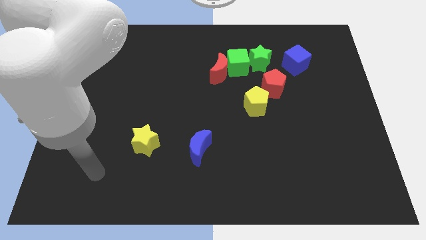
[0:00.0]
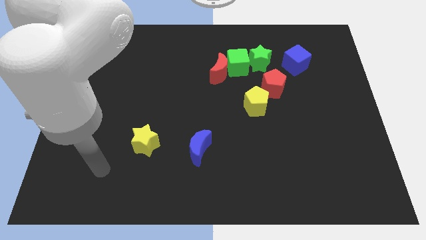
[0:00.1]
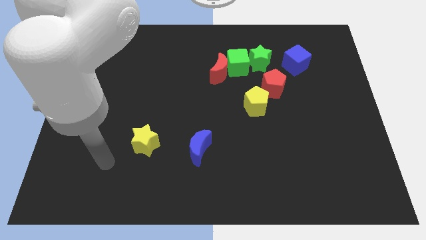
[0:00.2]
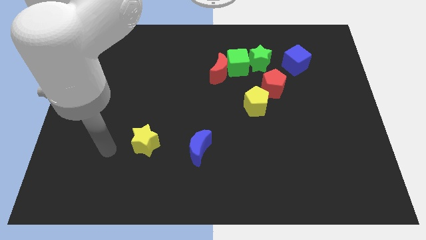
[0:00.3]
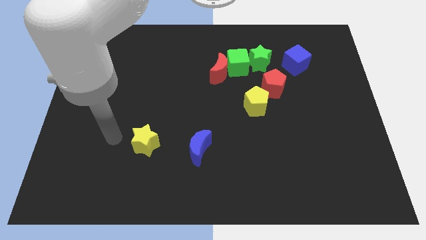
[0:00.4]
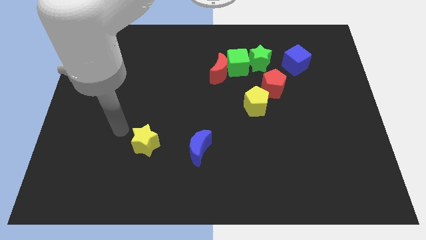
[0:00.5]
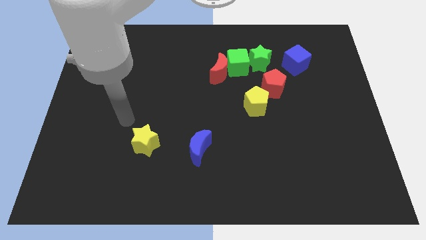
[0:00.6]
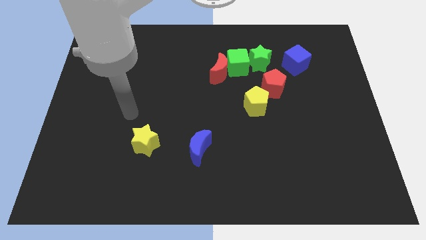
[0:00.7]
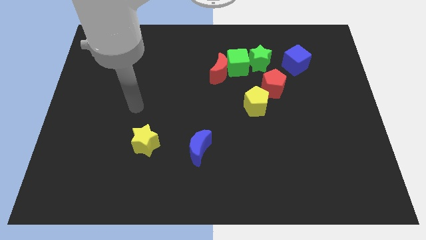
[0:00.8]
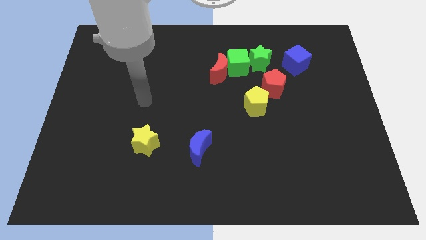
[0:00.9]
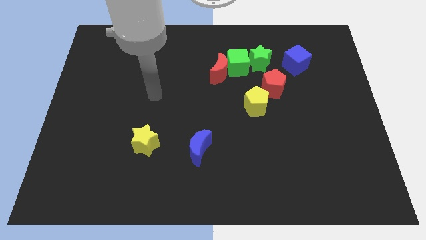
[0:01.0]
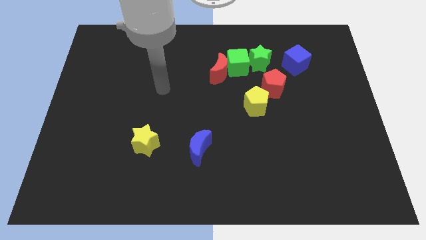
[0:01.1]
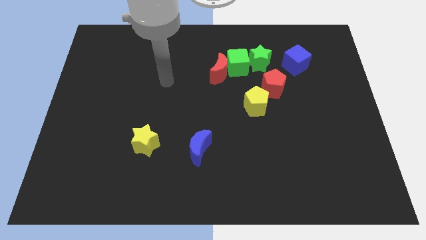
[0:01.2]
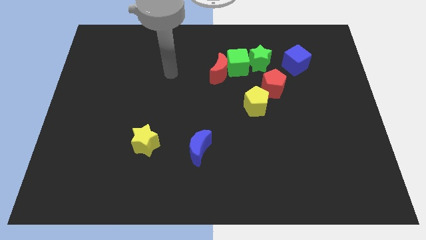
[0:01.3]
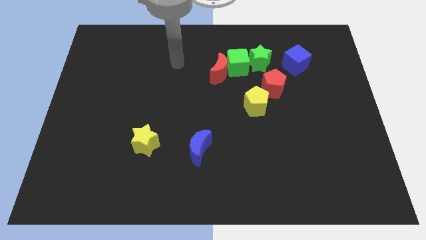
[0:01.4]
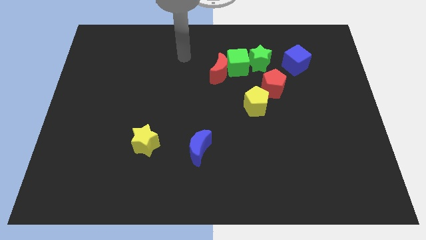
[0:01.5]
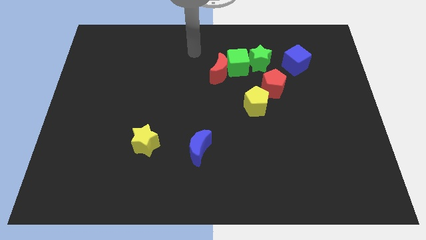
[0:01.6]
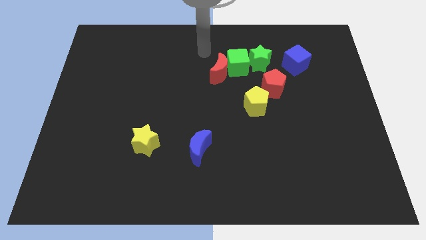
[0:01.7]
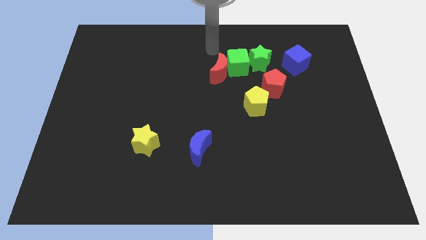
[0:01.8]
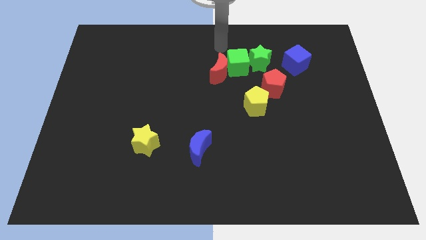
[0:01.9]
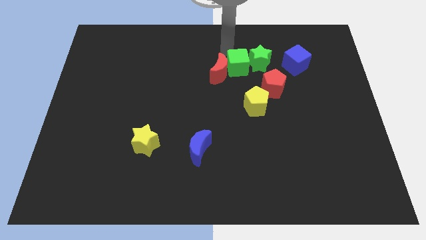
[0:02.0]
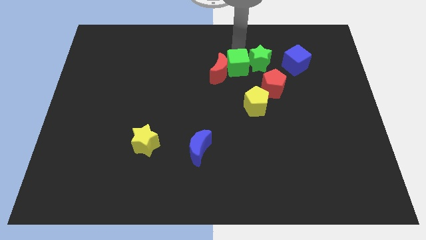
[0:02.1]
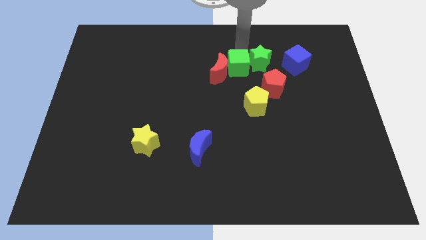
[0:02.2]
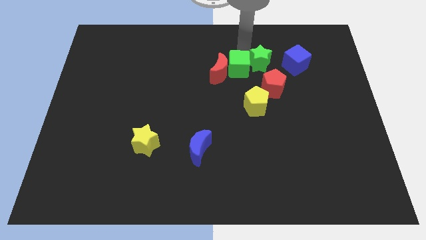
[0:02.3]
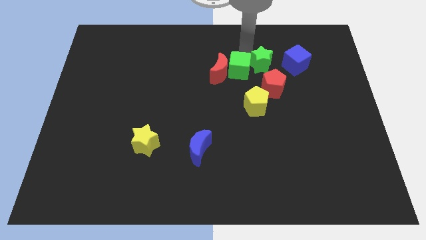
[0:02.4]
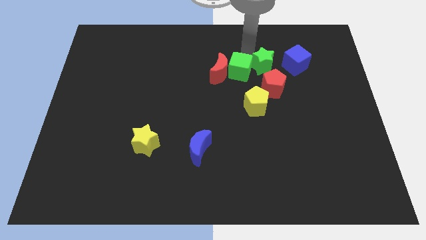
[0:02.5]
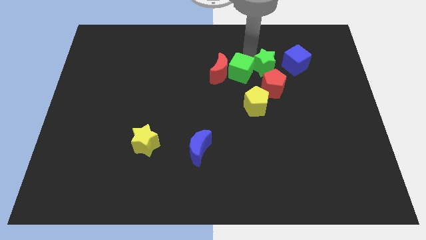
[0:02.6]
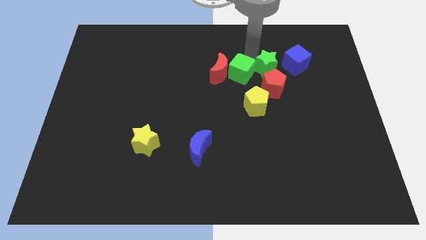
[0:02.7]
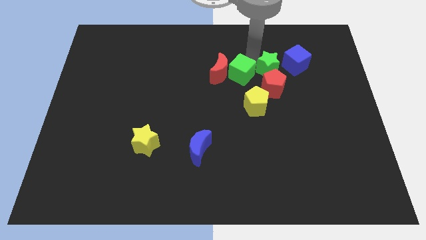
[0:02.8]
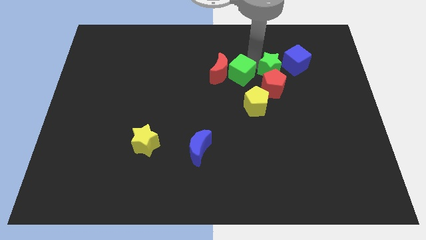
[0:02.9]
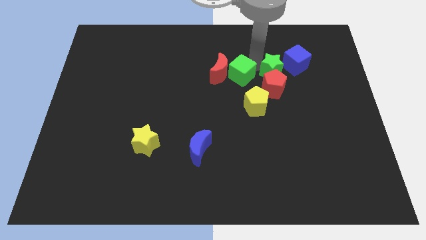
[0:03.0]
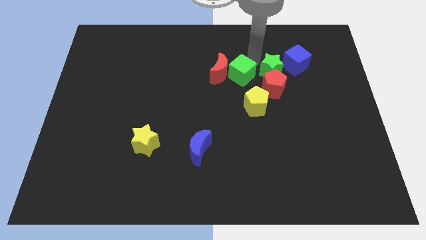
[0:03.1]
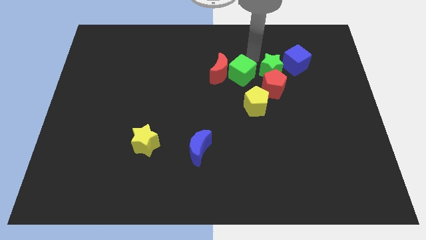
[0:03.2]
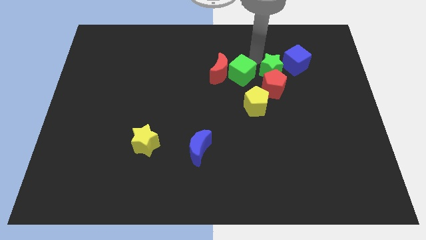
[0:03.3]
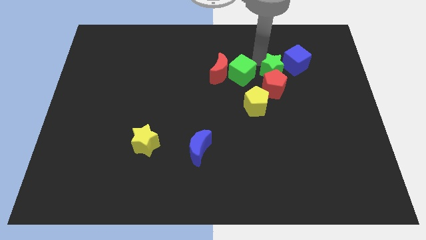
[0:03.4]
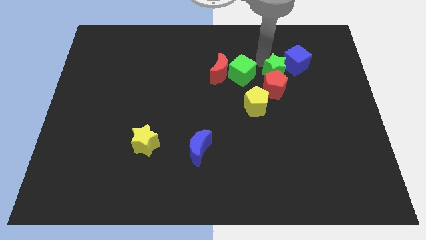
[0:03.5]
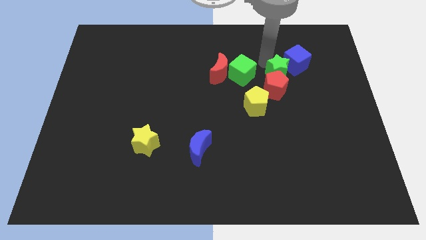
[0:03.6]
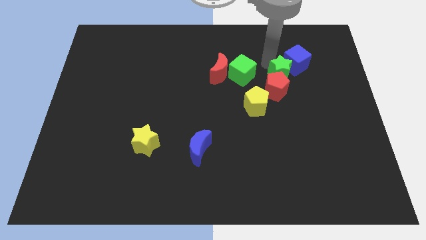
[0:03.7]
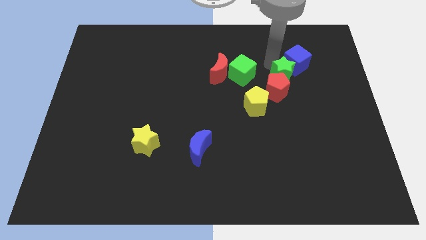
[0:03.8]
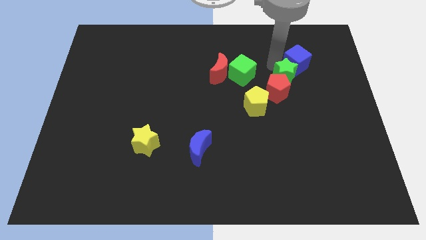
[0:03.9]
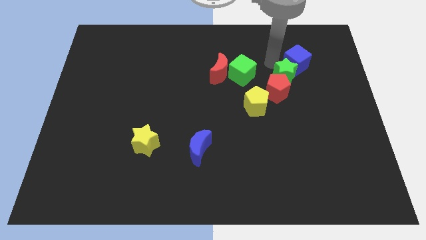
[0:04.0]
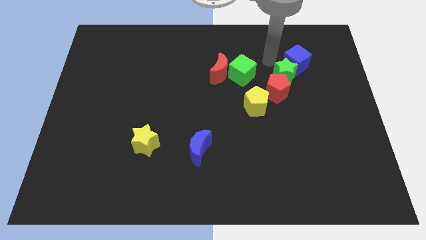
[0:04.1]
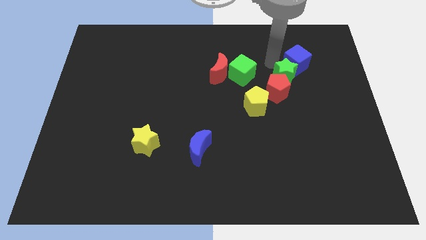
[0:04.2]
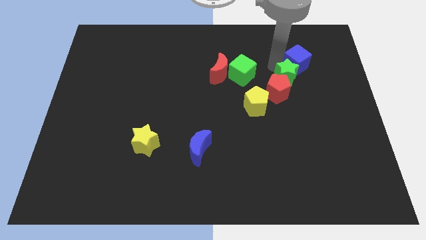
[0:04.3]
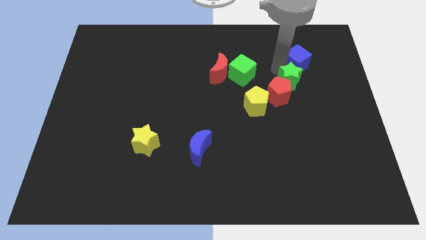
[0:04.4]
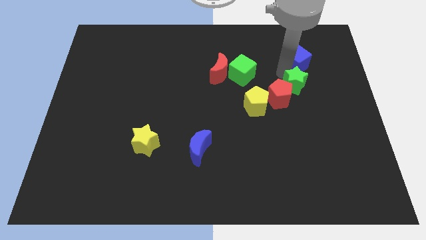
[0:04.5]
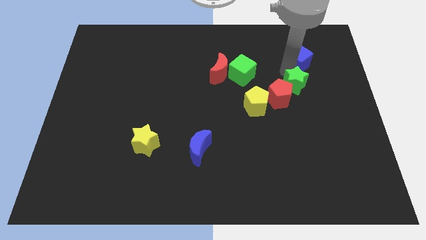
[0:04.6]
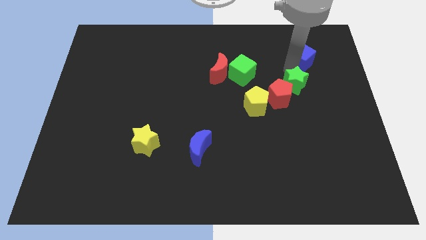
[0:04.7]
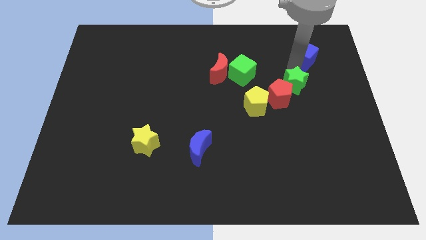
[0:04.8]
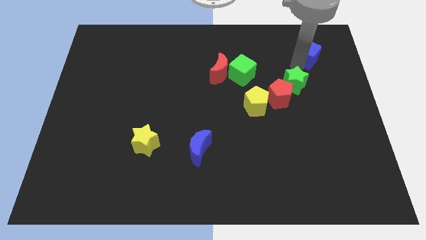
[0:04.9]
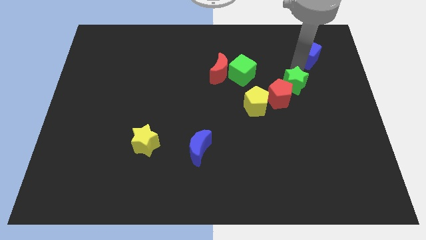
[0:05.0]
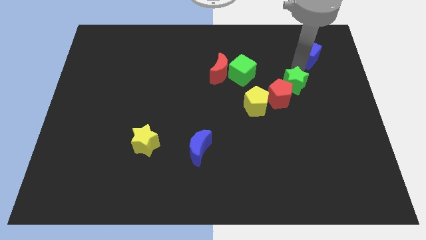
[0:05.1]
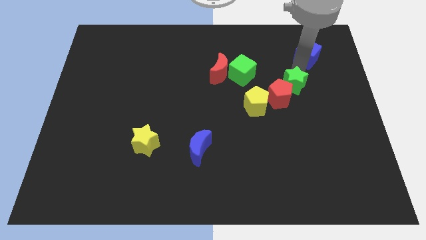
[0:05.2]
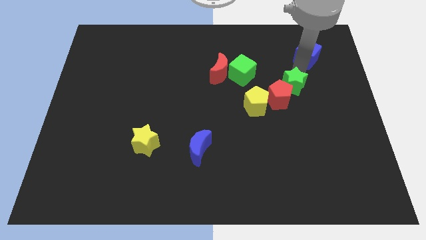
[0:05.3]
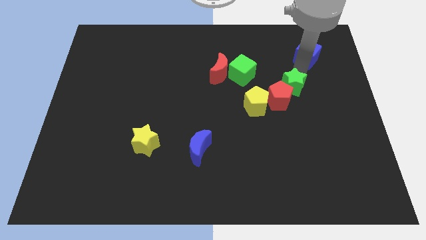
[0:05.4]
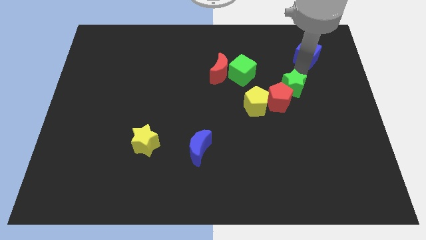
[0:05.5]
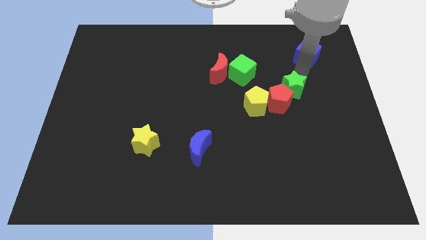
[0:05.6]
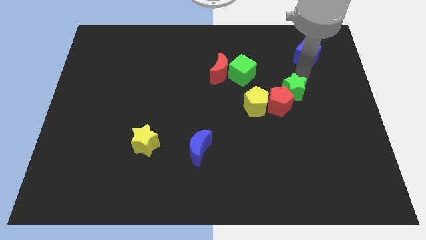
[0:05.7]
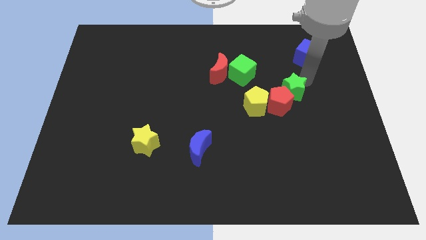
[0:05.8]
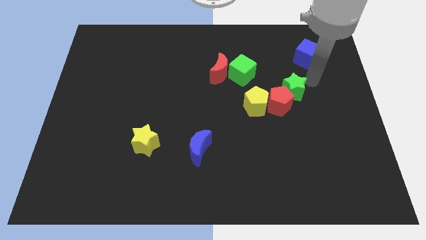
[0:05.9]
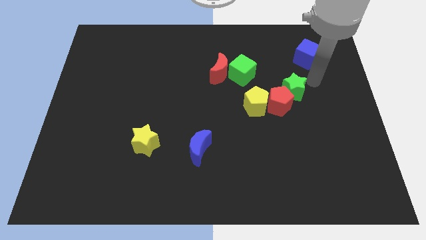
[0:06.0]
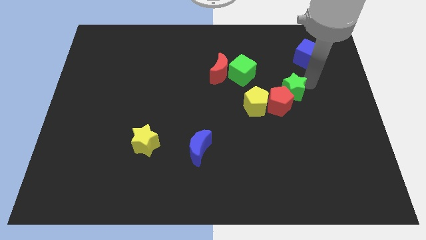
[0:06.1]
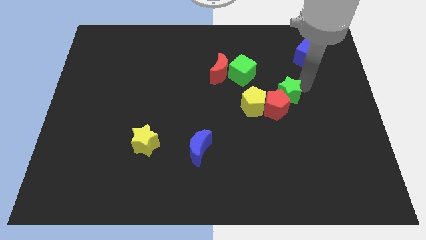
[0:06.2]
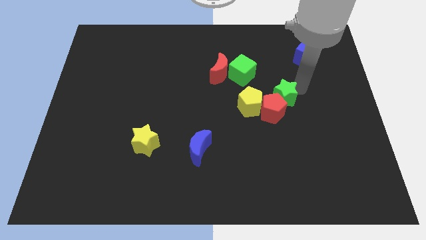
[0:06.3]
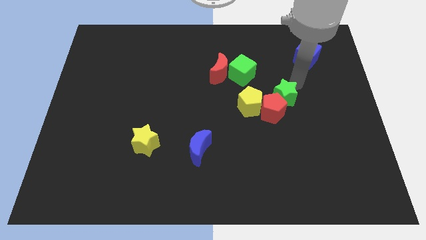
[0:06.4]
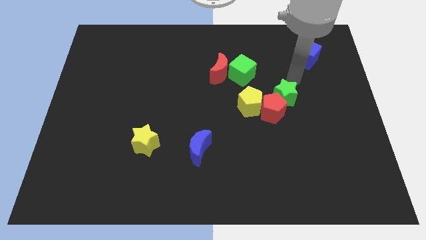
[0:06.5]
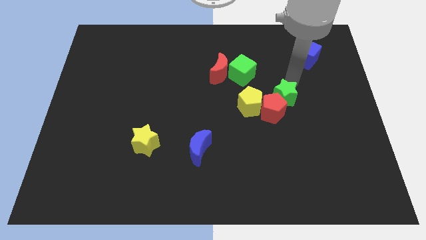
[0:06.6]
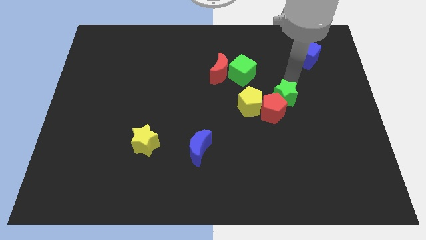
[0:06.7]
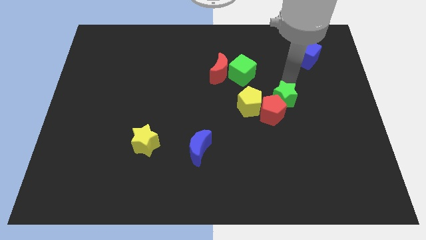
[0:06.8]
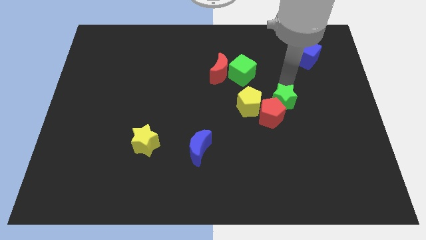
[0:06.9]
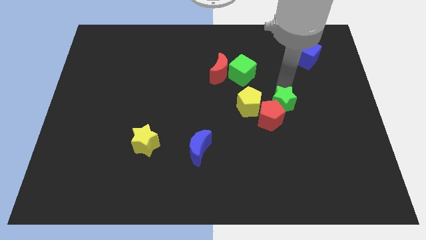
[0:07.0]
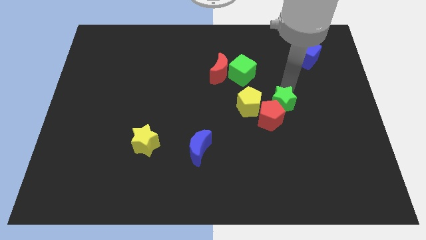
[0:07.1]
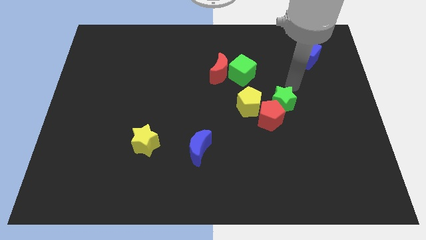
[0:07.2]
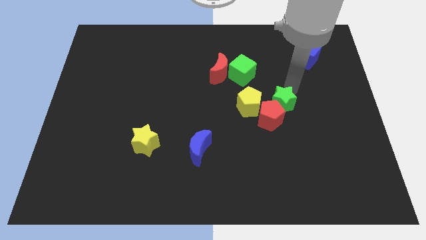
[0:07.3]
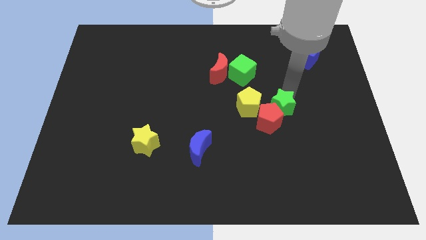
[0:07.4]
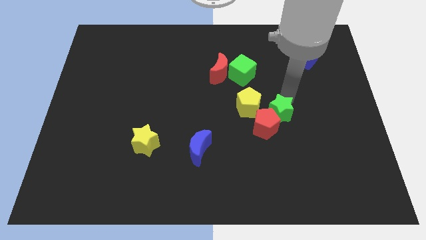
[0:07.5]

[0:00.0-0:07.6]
push the green star to the bottom right side of the yellow pentagon
